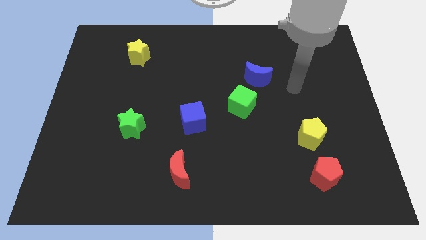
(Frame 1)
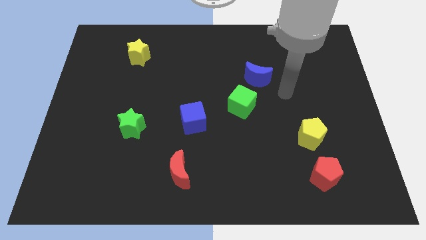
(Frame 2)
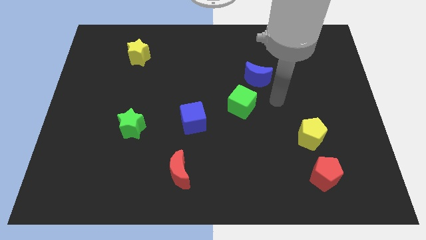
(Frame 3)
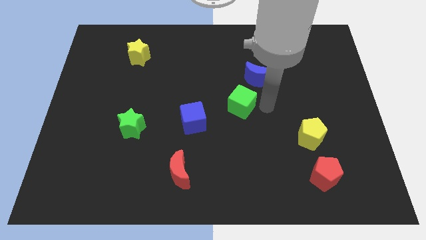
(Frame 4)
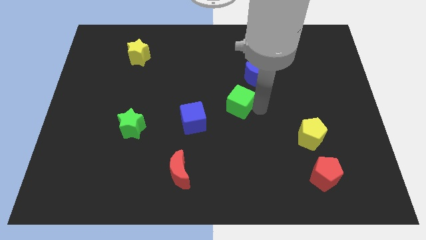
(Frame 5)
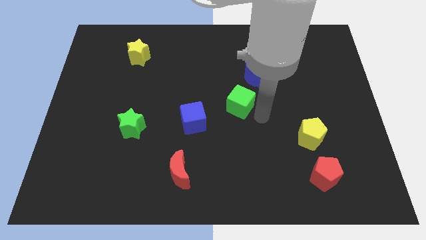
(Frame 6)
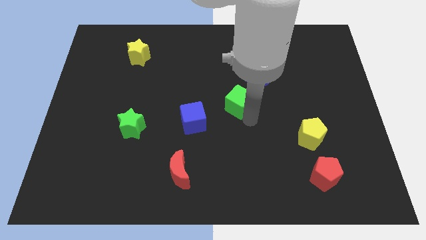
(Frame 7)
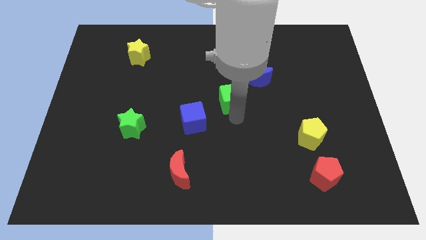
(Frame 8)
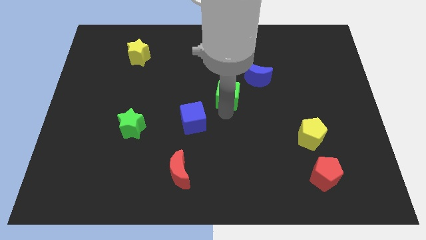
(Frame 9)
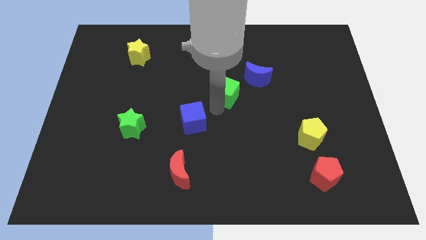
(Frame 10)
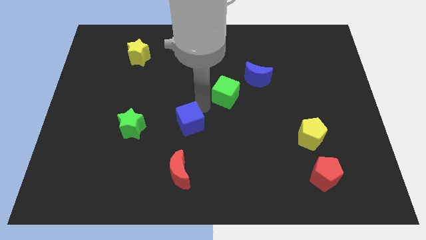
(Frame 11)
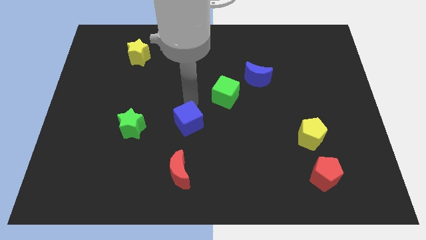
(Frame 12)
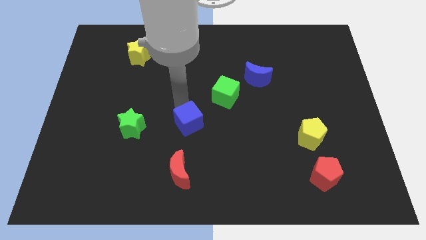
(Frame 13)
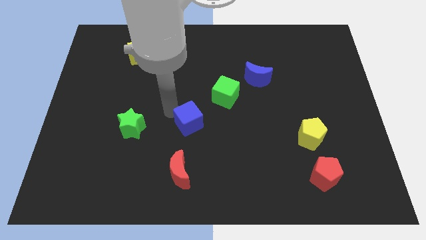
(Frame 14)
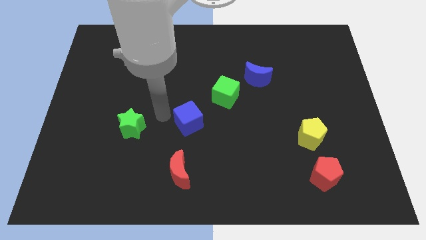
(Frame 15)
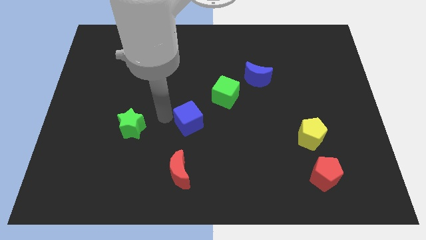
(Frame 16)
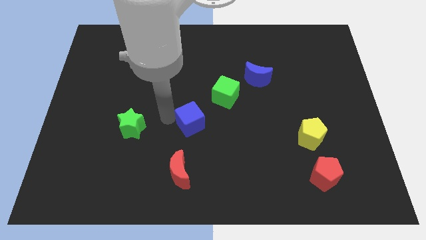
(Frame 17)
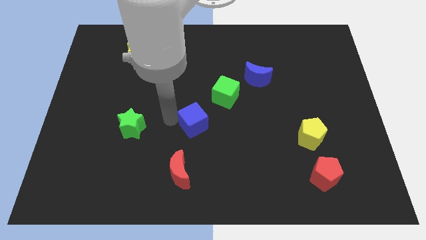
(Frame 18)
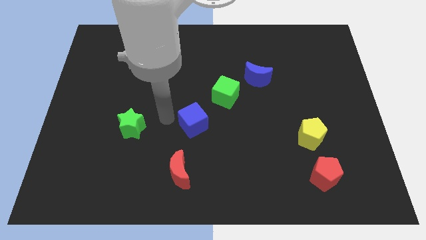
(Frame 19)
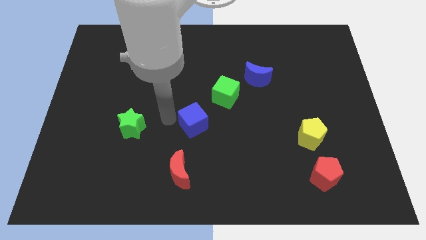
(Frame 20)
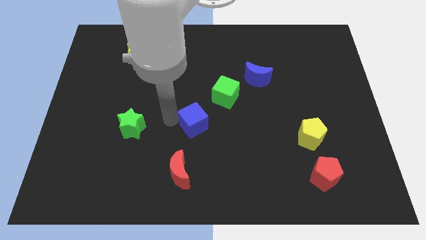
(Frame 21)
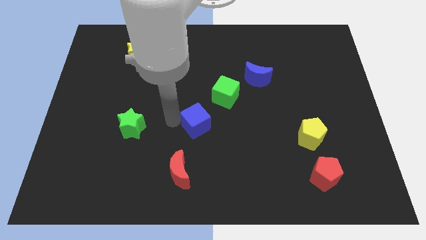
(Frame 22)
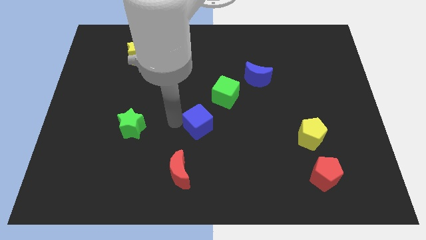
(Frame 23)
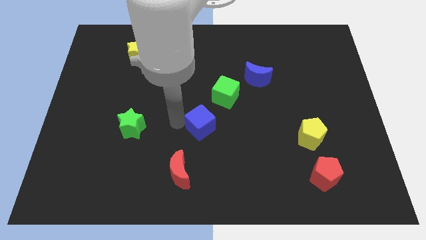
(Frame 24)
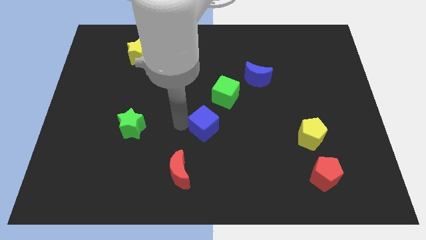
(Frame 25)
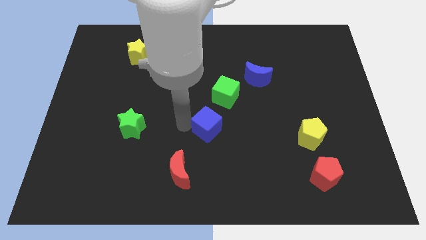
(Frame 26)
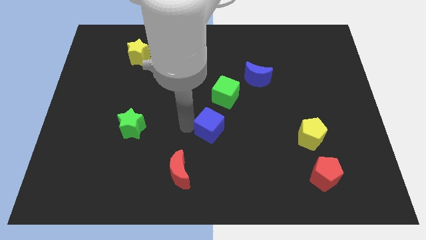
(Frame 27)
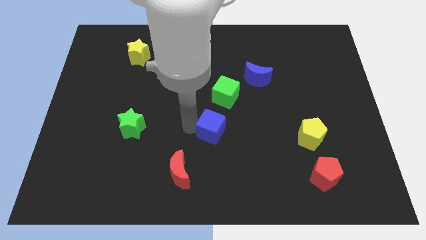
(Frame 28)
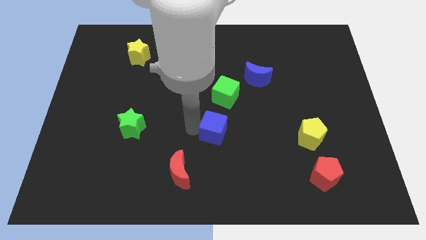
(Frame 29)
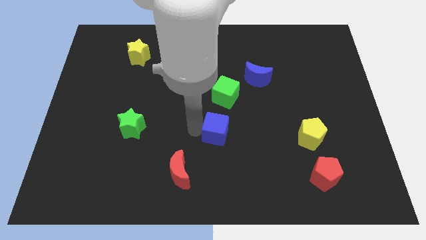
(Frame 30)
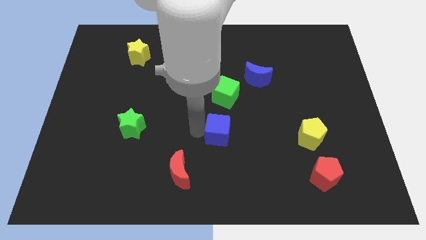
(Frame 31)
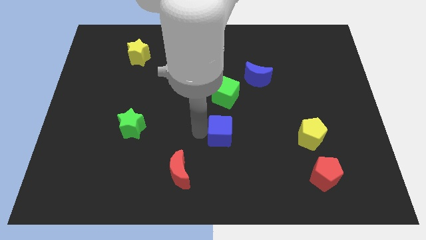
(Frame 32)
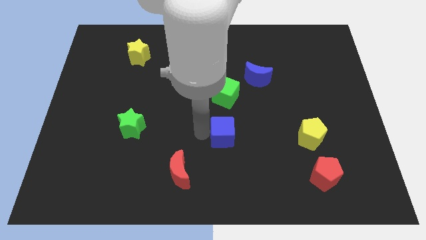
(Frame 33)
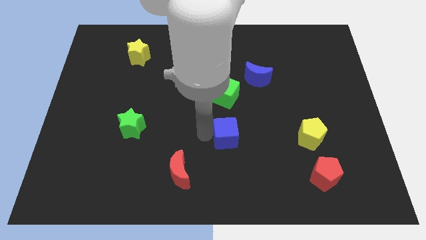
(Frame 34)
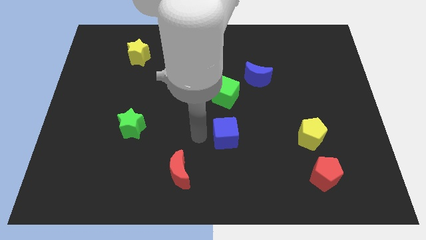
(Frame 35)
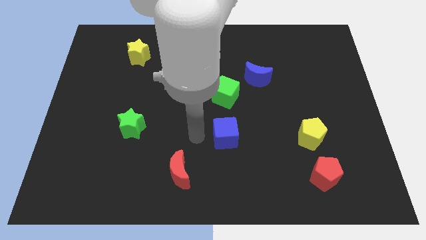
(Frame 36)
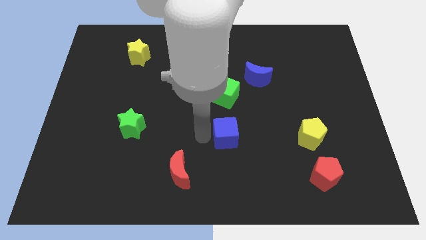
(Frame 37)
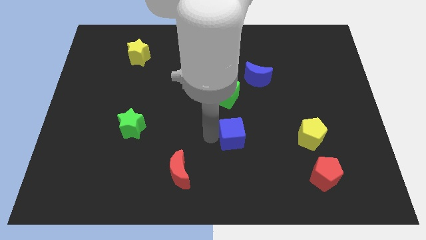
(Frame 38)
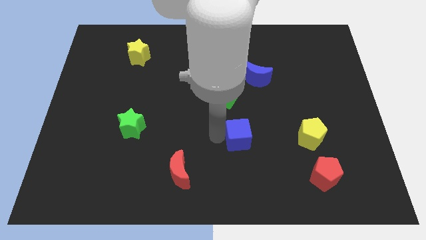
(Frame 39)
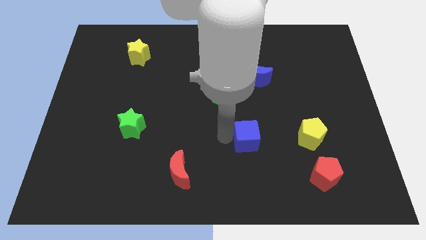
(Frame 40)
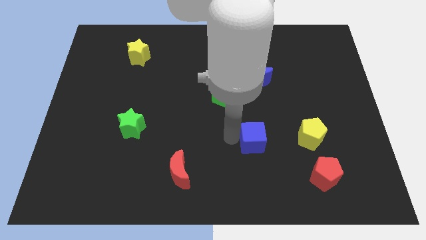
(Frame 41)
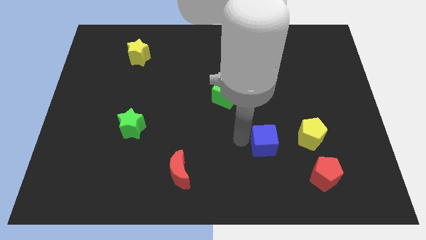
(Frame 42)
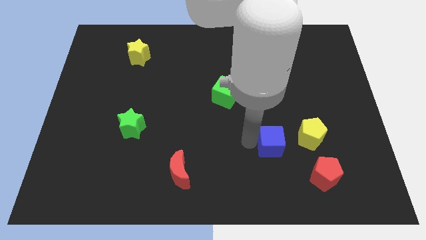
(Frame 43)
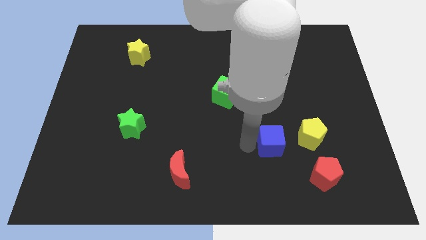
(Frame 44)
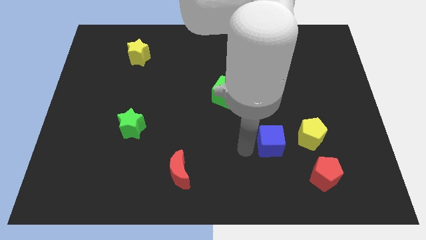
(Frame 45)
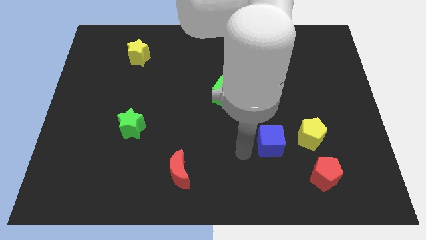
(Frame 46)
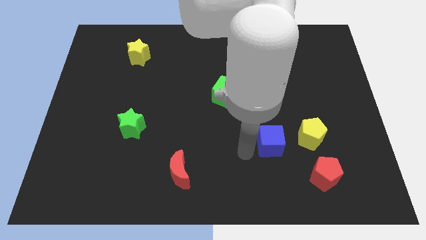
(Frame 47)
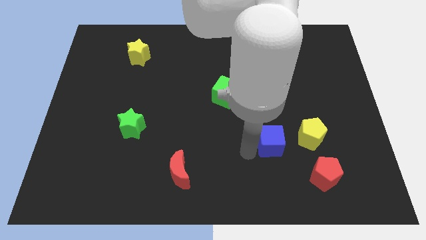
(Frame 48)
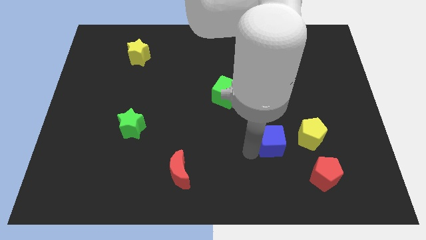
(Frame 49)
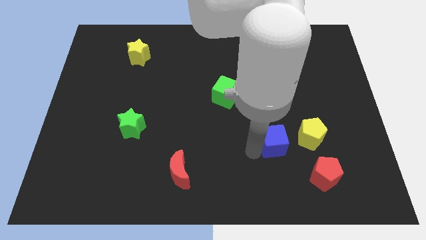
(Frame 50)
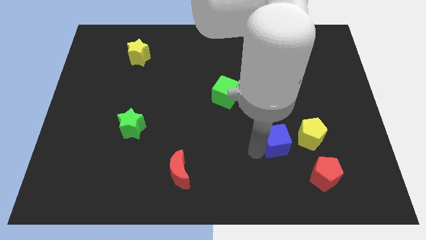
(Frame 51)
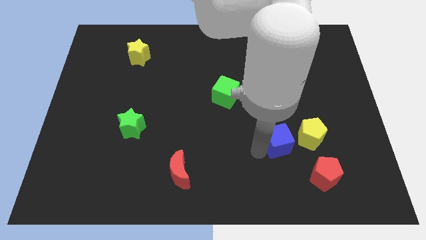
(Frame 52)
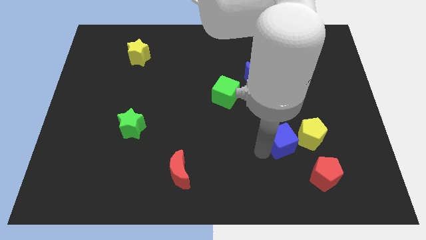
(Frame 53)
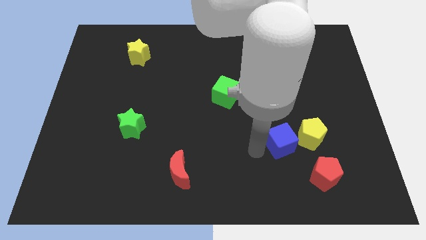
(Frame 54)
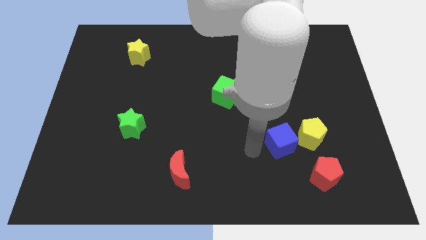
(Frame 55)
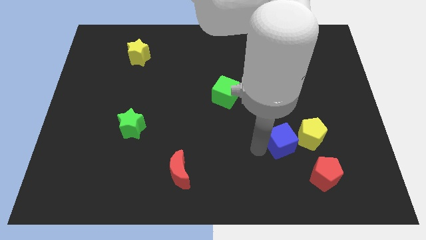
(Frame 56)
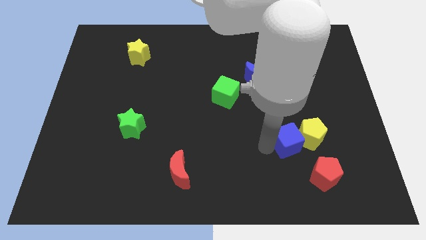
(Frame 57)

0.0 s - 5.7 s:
push the blue cube to the yellow pentagon

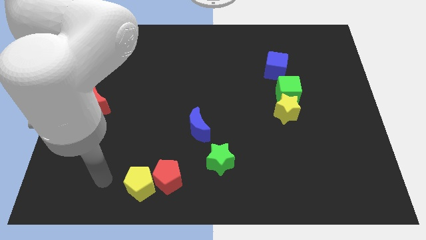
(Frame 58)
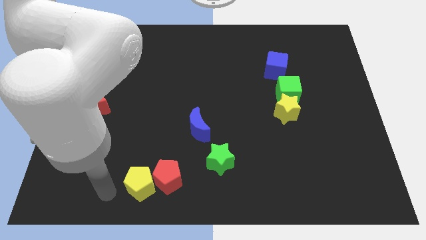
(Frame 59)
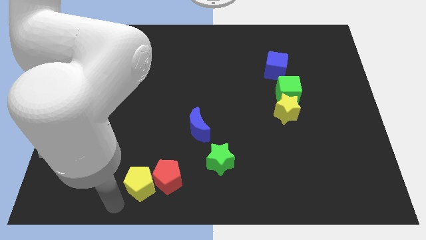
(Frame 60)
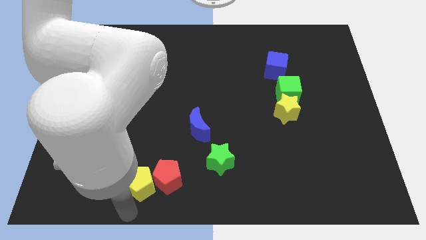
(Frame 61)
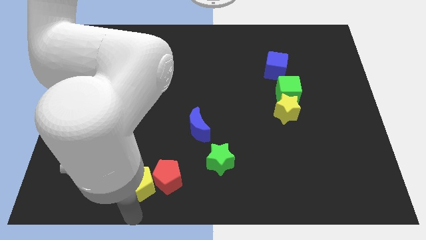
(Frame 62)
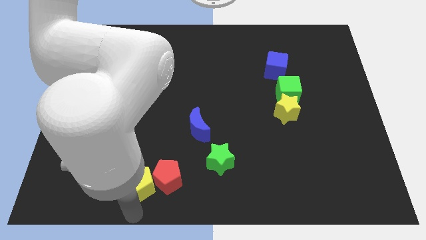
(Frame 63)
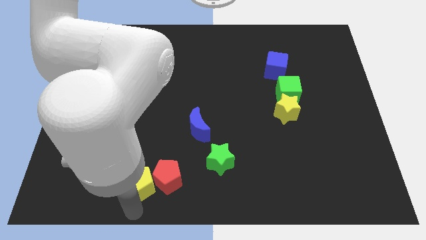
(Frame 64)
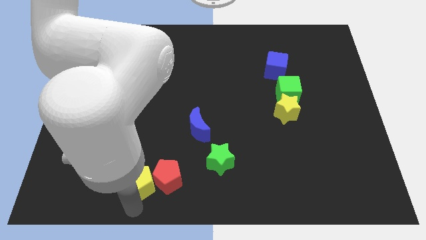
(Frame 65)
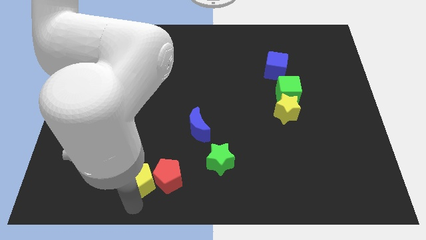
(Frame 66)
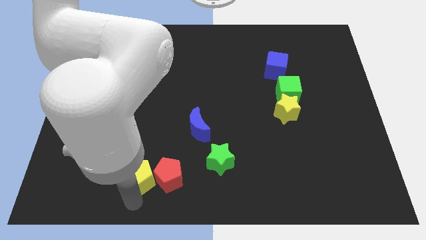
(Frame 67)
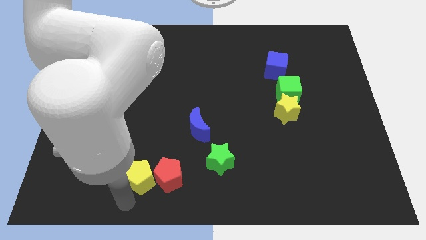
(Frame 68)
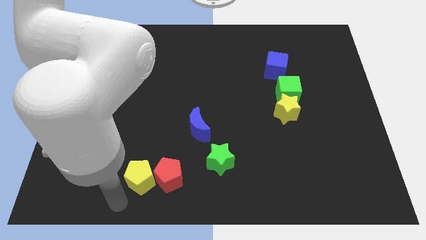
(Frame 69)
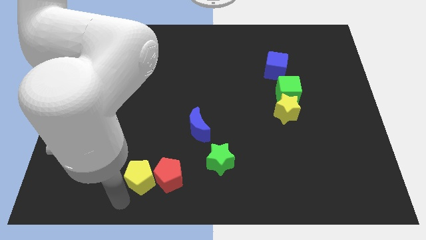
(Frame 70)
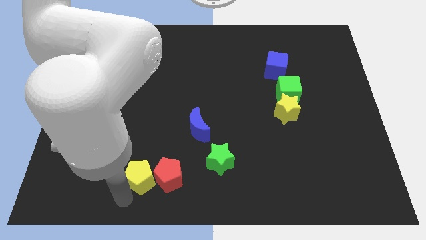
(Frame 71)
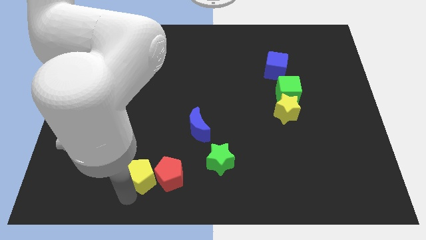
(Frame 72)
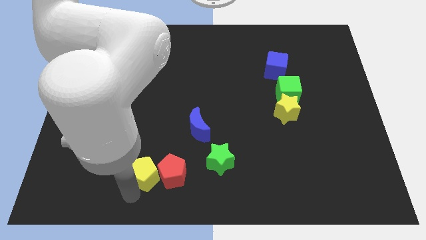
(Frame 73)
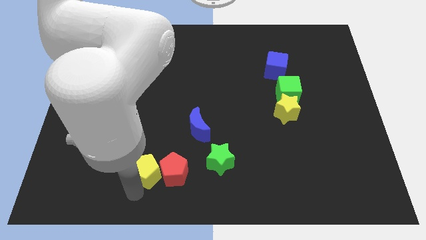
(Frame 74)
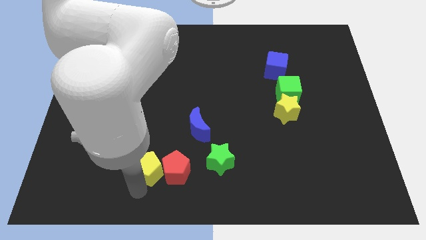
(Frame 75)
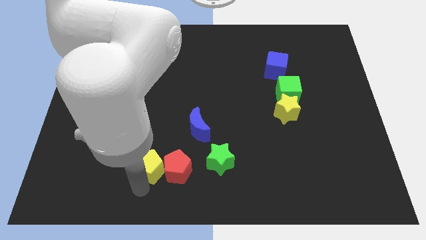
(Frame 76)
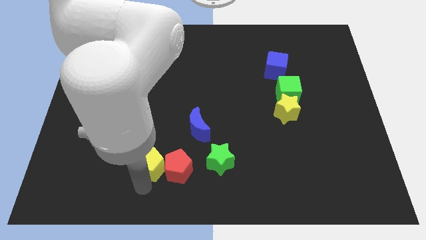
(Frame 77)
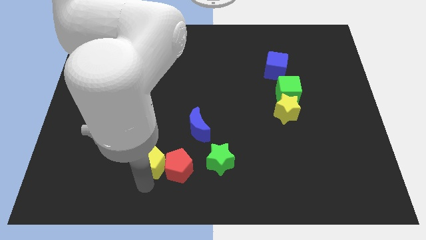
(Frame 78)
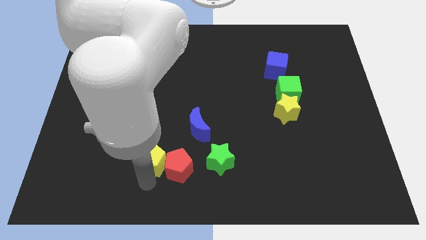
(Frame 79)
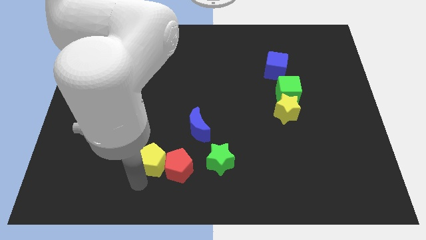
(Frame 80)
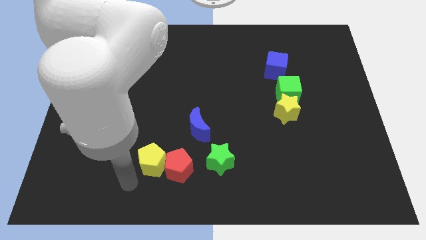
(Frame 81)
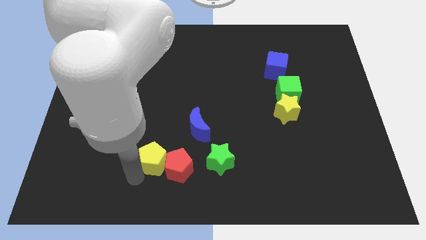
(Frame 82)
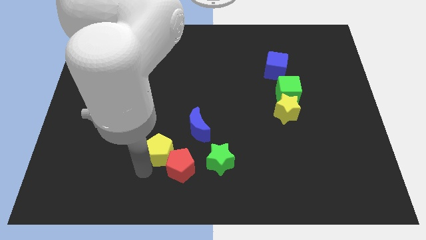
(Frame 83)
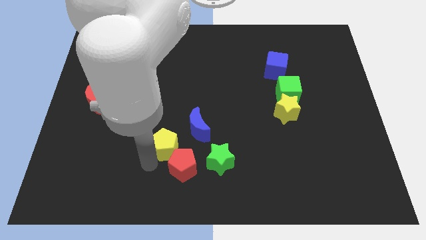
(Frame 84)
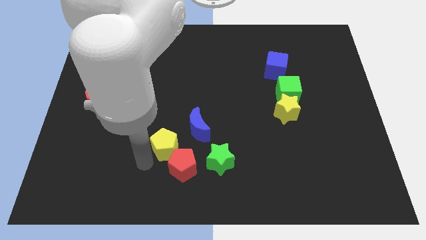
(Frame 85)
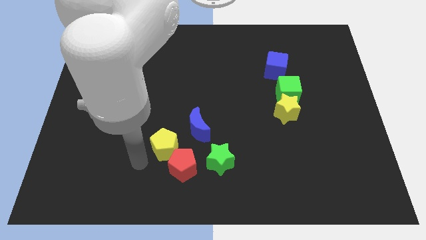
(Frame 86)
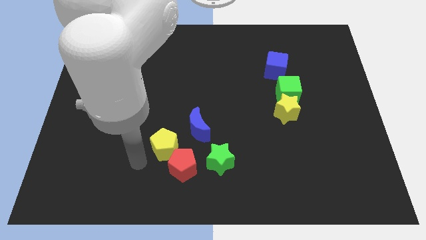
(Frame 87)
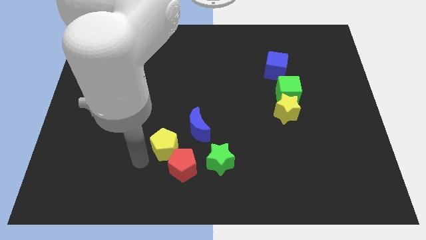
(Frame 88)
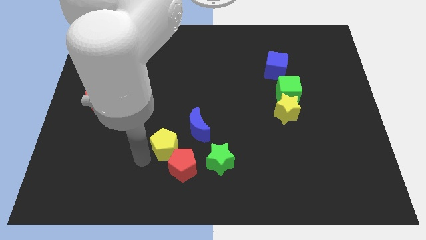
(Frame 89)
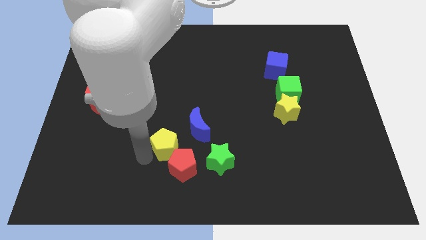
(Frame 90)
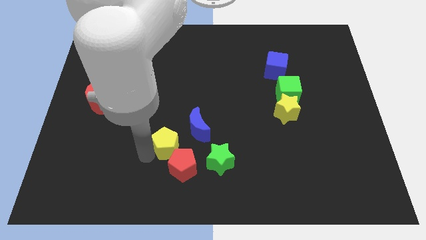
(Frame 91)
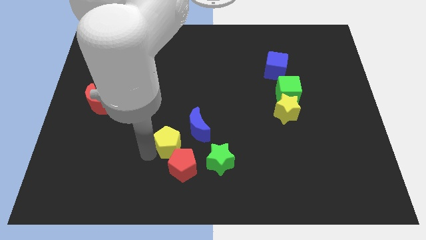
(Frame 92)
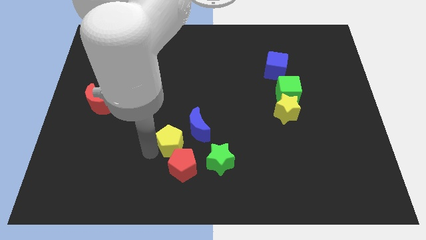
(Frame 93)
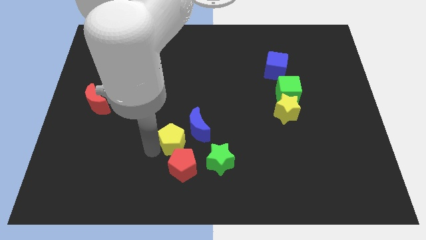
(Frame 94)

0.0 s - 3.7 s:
slide the yellow pentagon close to the blue moon
